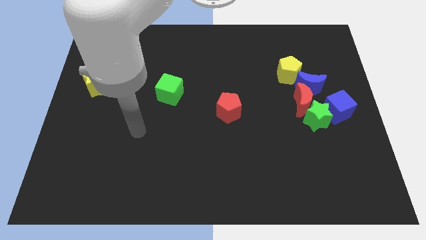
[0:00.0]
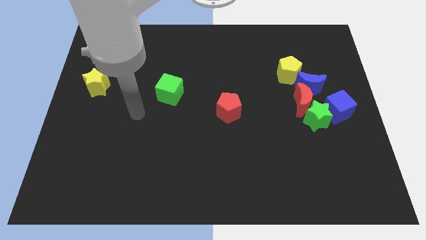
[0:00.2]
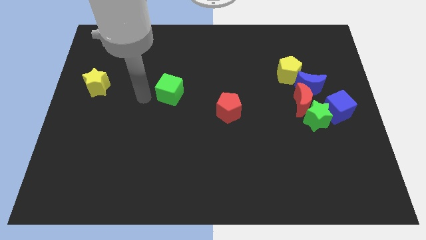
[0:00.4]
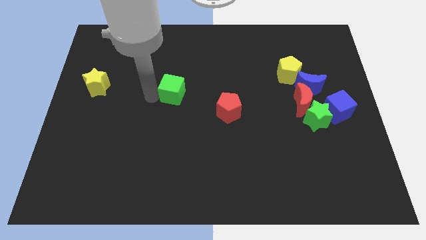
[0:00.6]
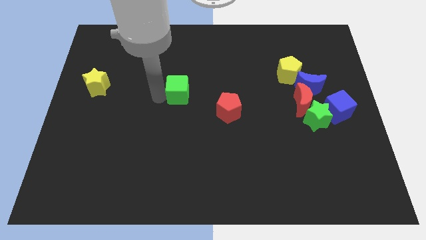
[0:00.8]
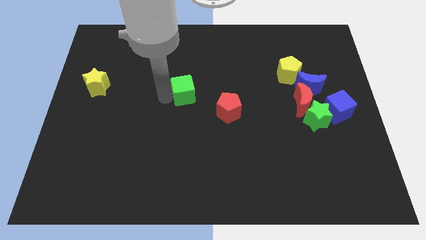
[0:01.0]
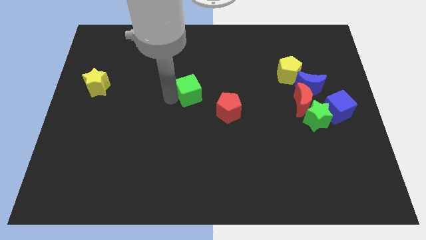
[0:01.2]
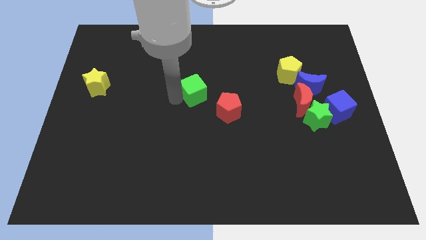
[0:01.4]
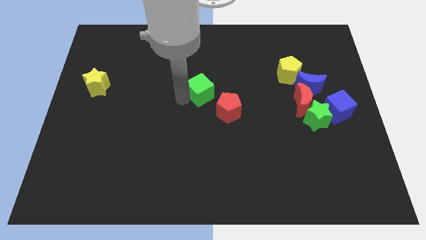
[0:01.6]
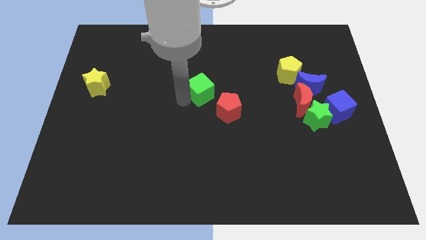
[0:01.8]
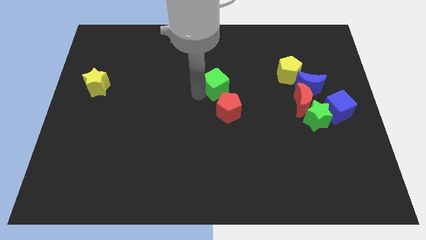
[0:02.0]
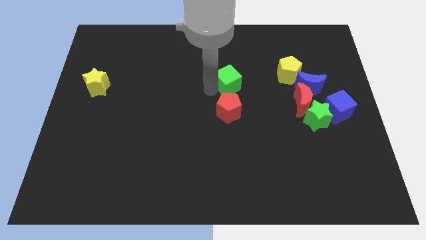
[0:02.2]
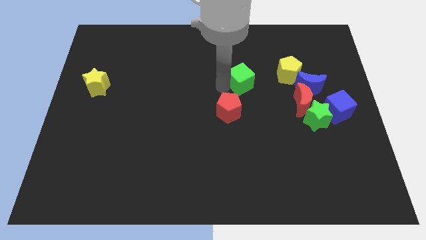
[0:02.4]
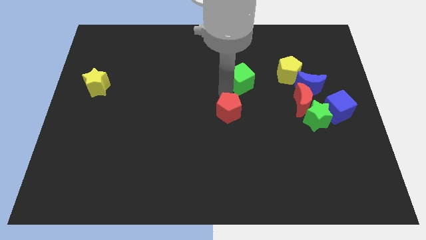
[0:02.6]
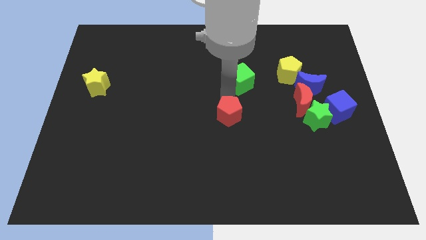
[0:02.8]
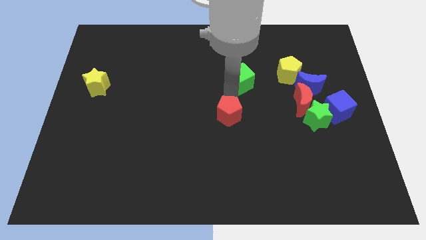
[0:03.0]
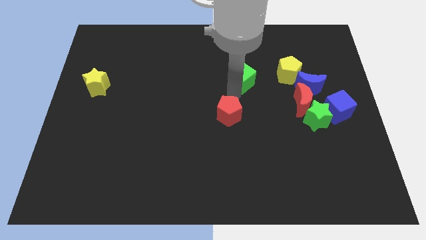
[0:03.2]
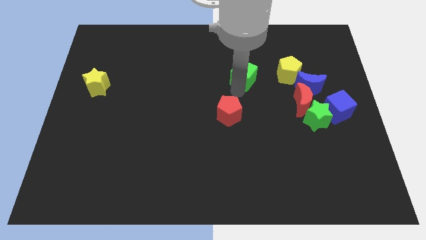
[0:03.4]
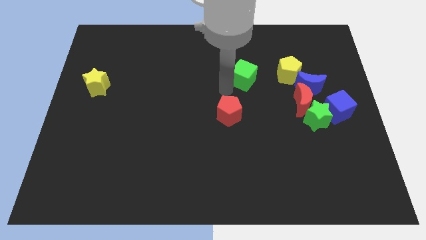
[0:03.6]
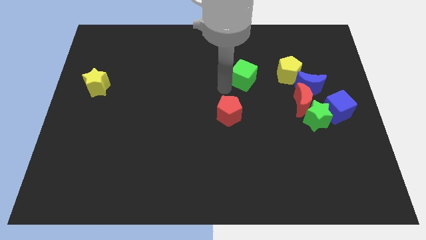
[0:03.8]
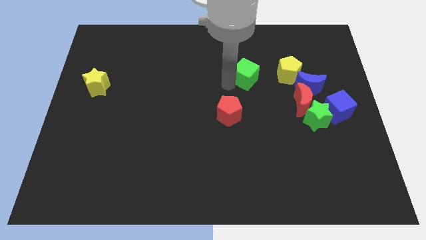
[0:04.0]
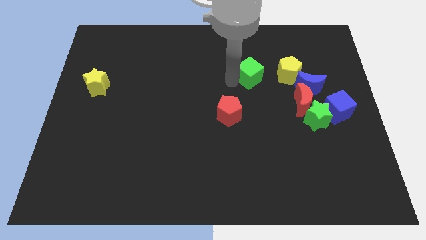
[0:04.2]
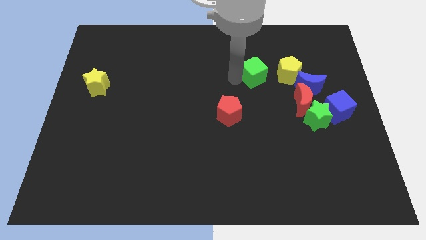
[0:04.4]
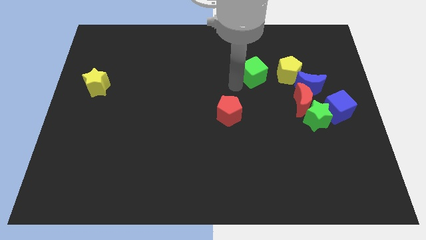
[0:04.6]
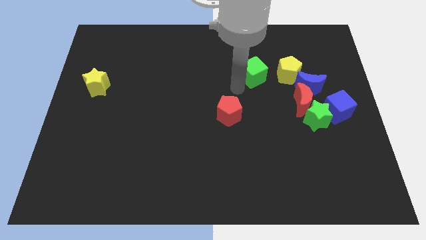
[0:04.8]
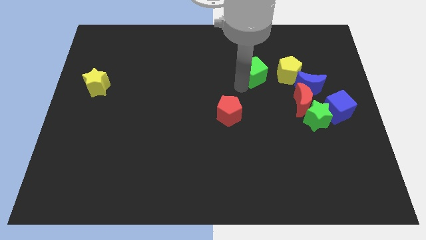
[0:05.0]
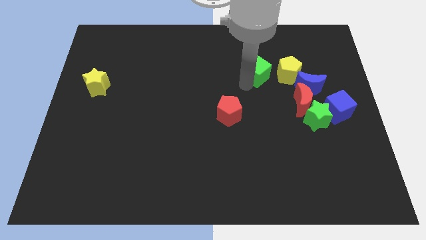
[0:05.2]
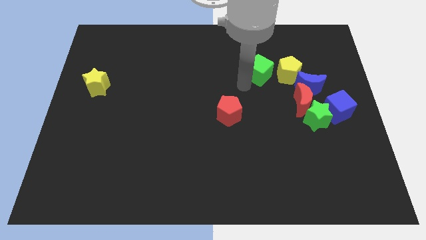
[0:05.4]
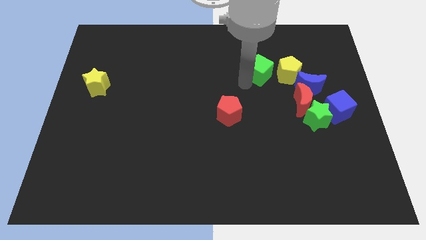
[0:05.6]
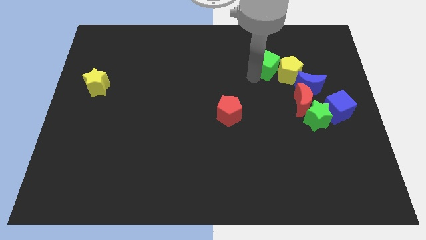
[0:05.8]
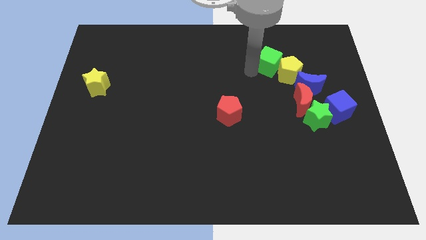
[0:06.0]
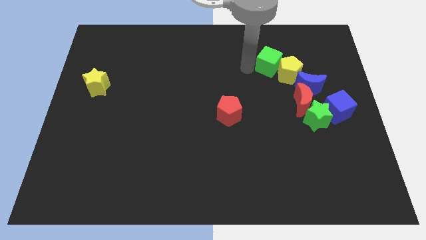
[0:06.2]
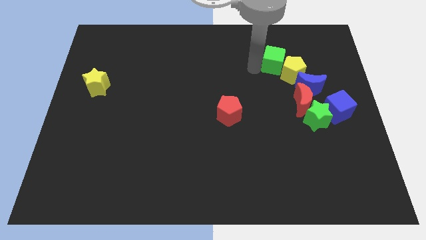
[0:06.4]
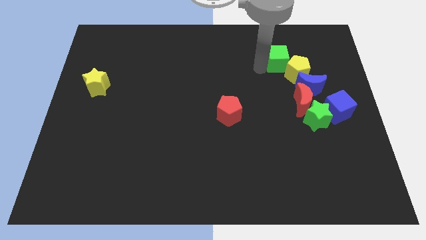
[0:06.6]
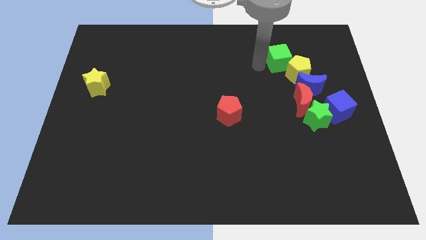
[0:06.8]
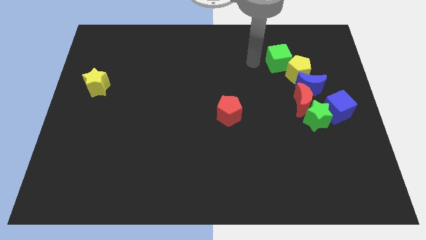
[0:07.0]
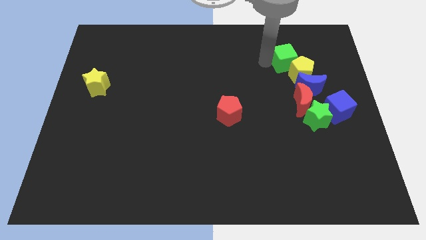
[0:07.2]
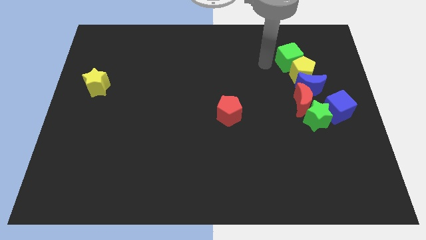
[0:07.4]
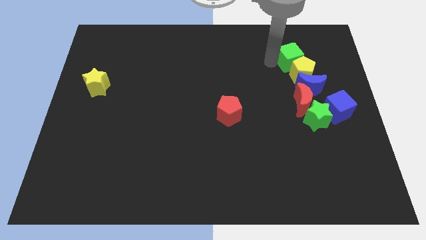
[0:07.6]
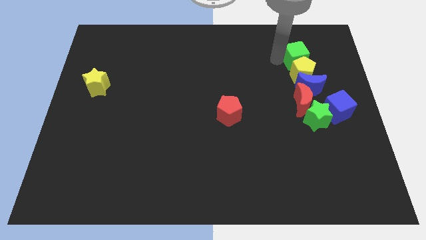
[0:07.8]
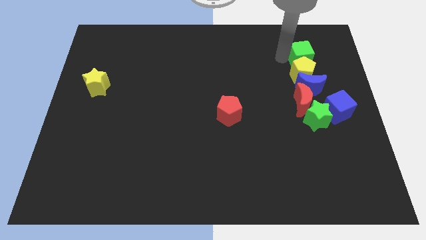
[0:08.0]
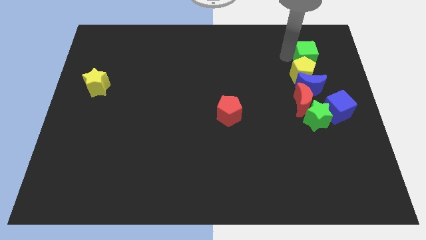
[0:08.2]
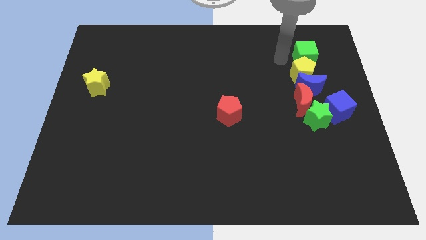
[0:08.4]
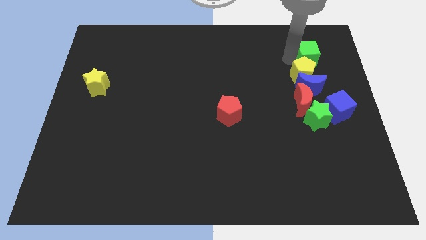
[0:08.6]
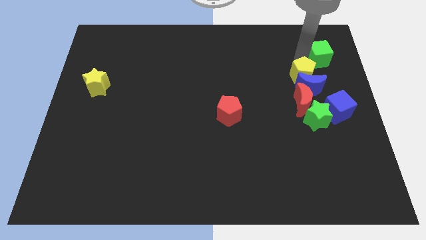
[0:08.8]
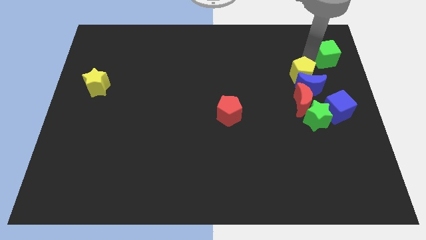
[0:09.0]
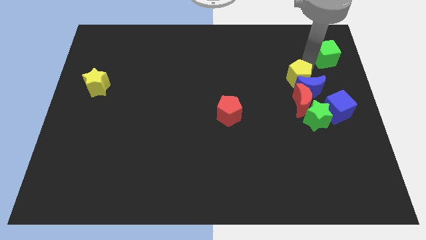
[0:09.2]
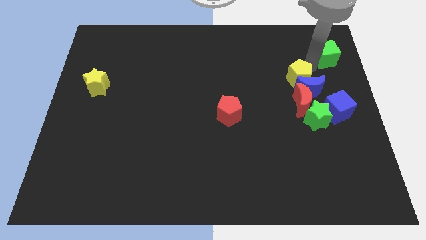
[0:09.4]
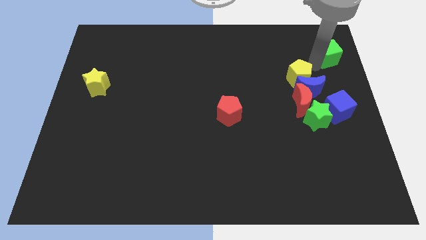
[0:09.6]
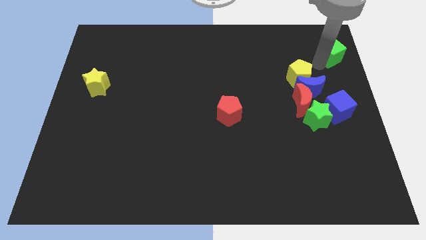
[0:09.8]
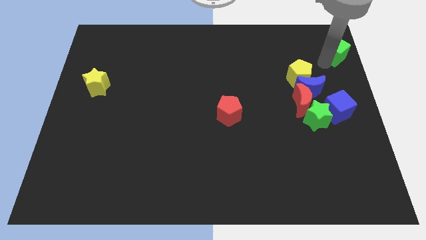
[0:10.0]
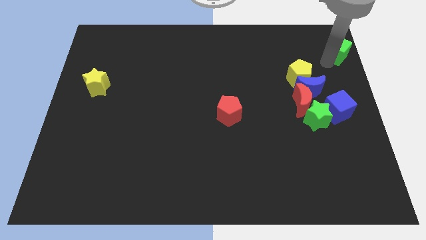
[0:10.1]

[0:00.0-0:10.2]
push the green cube to the top right

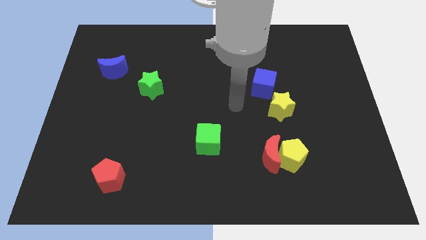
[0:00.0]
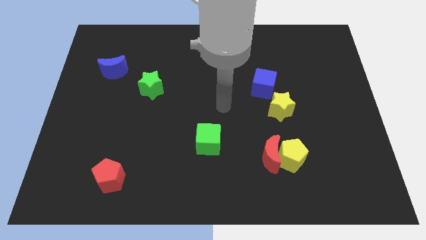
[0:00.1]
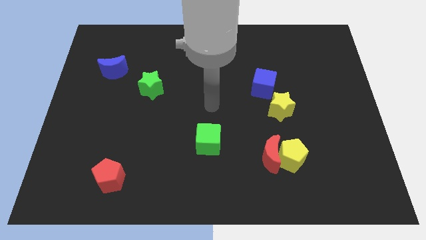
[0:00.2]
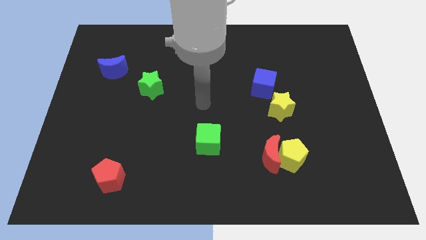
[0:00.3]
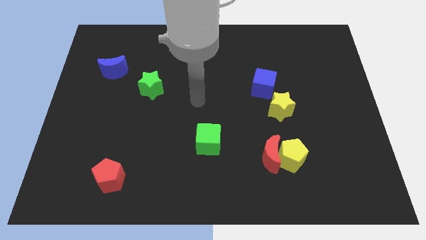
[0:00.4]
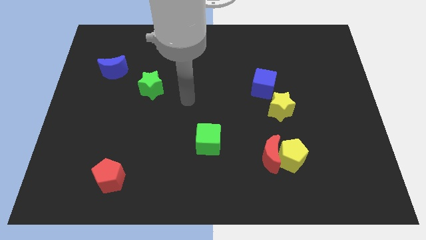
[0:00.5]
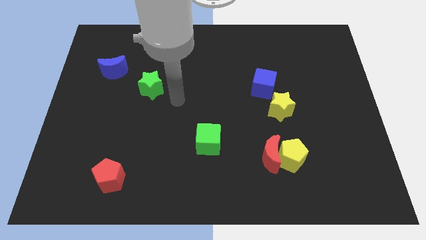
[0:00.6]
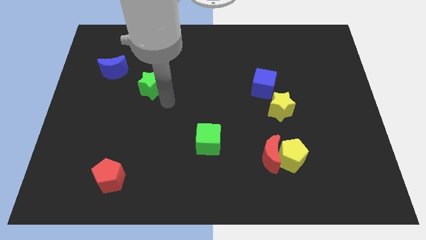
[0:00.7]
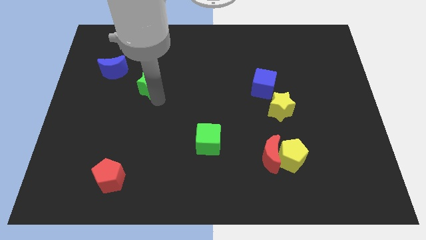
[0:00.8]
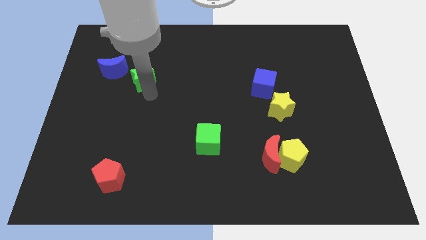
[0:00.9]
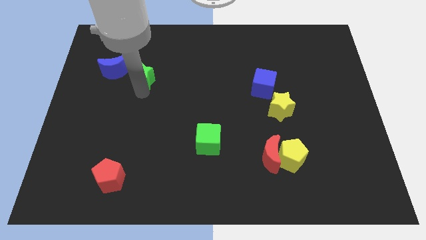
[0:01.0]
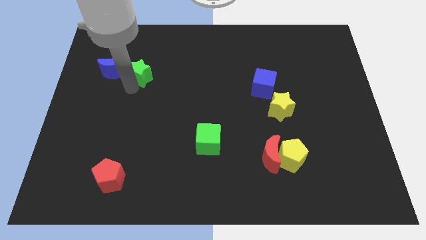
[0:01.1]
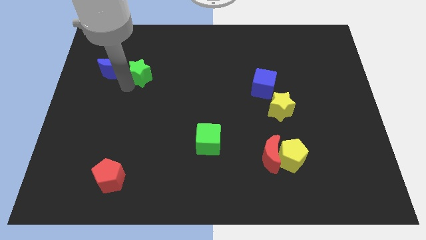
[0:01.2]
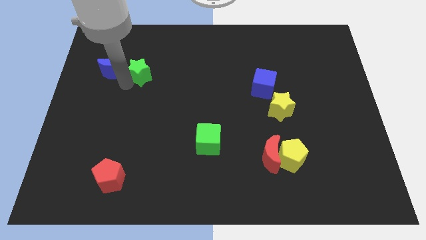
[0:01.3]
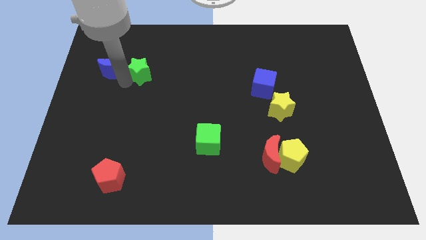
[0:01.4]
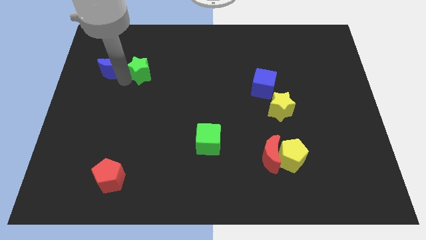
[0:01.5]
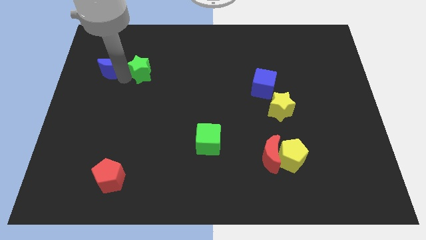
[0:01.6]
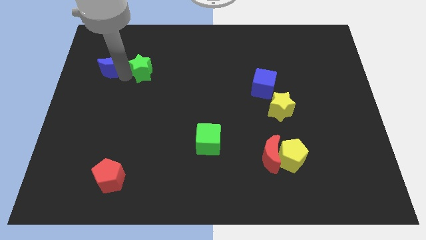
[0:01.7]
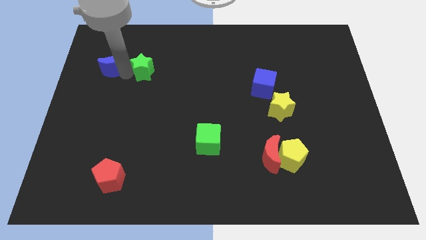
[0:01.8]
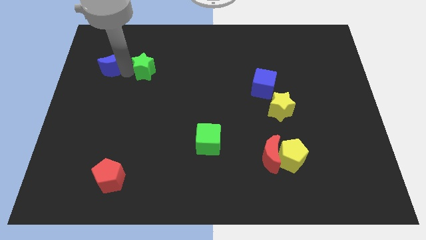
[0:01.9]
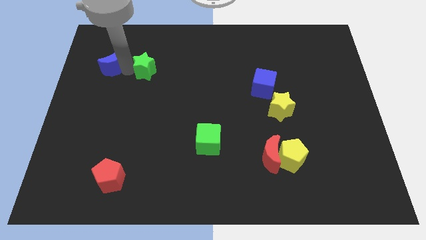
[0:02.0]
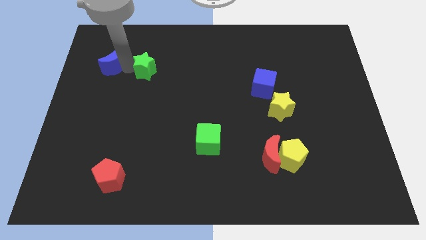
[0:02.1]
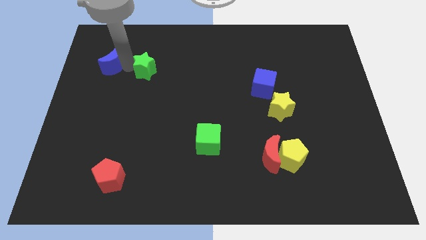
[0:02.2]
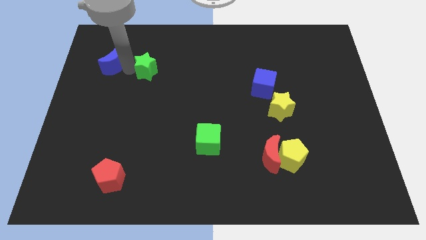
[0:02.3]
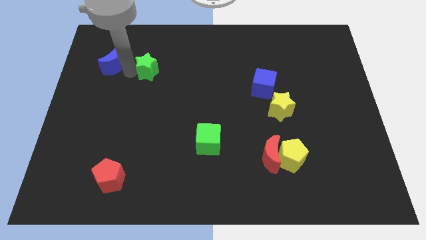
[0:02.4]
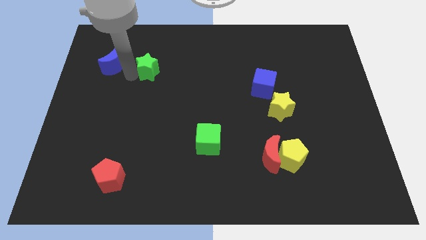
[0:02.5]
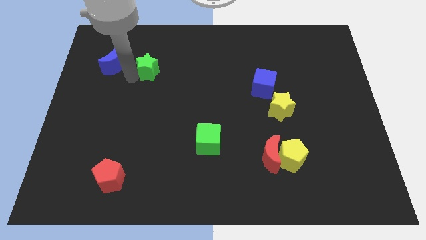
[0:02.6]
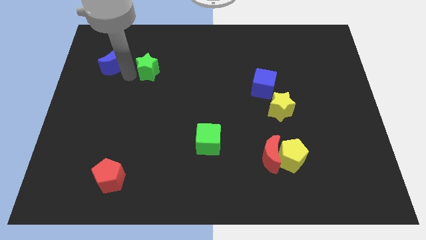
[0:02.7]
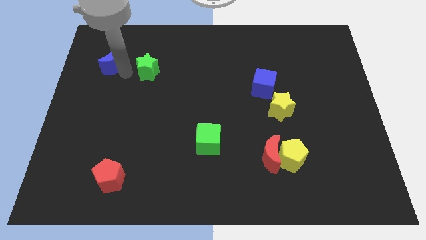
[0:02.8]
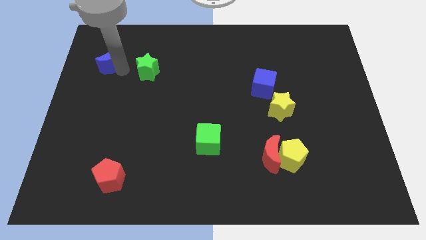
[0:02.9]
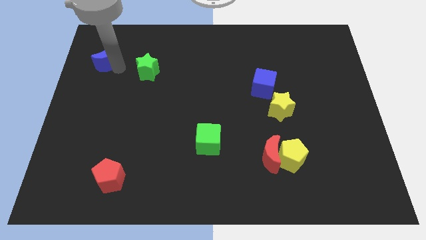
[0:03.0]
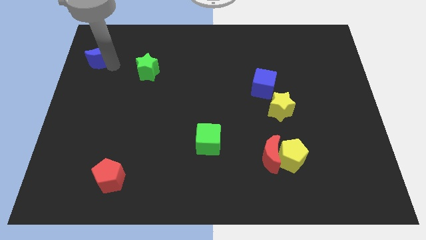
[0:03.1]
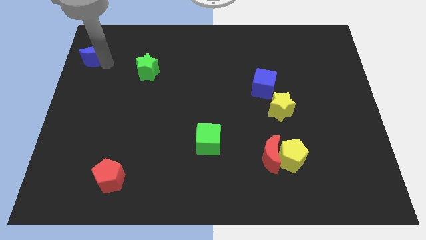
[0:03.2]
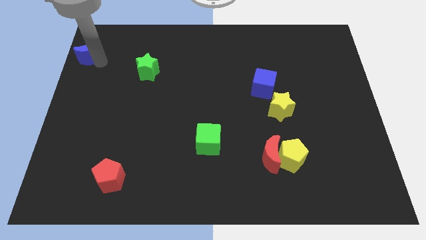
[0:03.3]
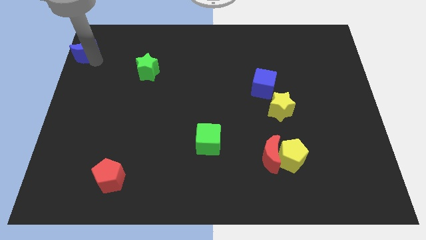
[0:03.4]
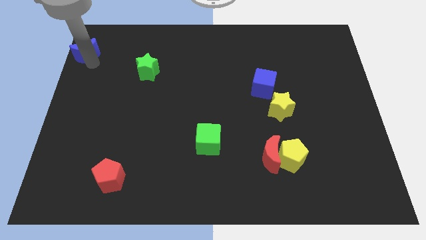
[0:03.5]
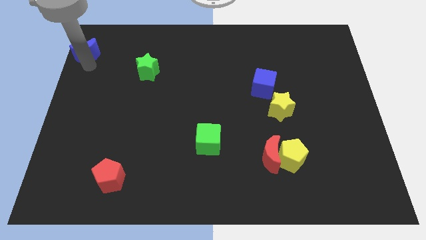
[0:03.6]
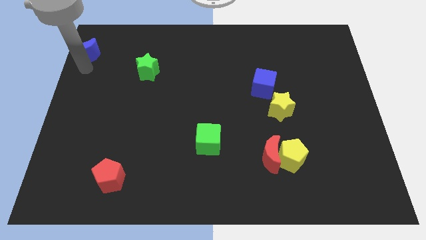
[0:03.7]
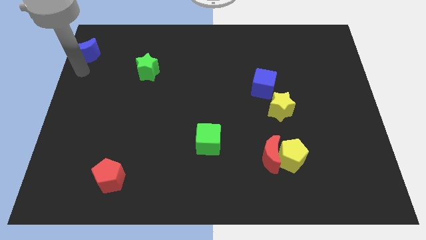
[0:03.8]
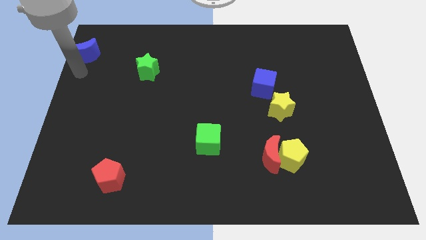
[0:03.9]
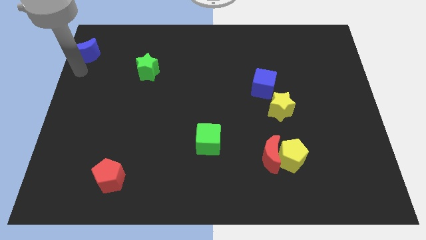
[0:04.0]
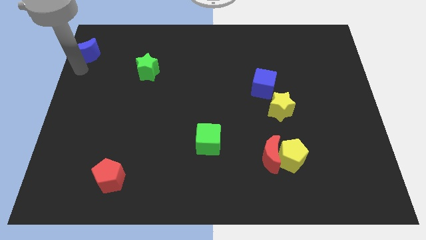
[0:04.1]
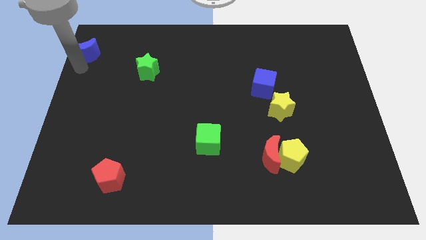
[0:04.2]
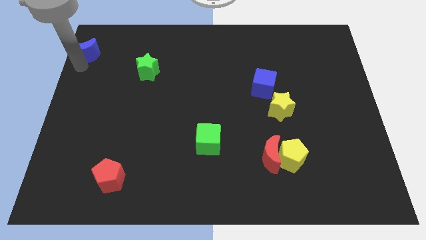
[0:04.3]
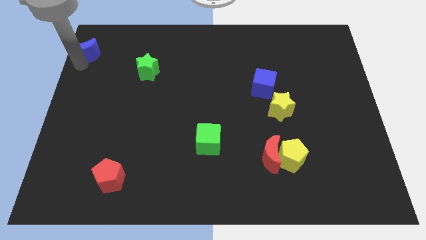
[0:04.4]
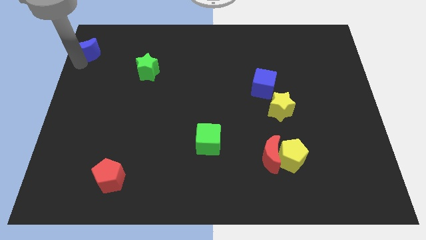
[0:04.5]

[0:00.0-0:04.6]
slide the blue moon to the top left of the board
